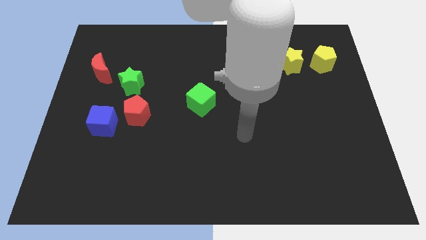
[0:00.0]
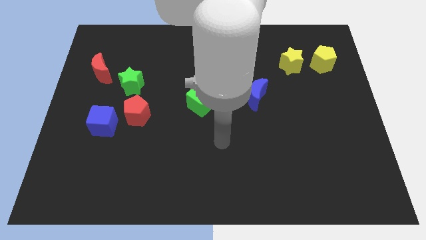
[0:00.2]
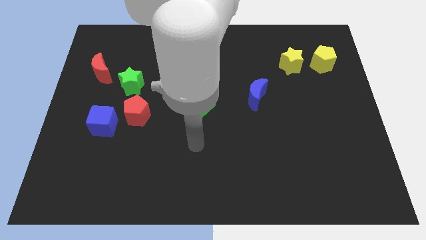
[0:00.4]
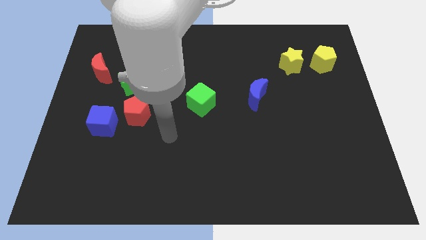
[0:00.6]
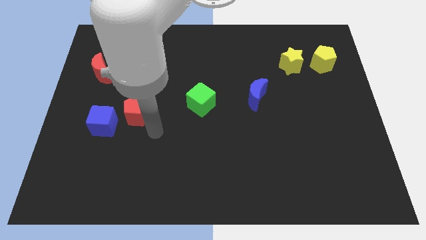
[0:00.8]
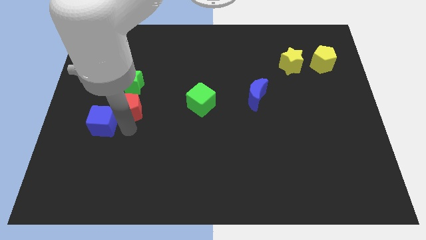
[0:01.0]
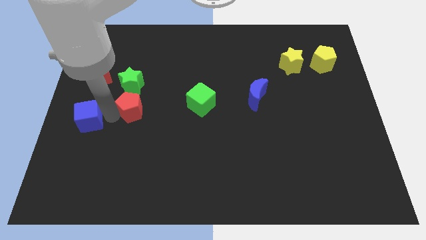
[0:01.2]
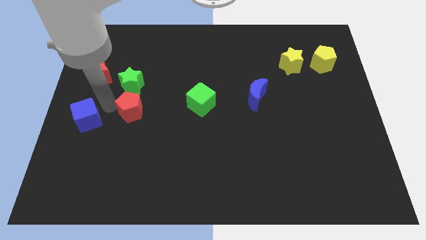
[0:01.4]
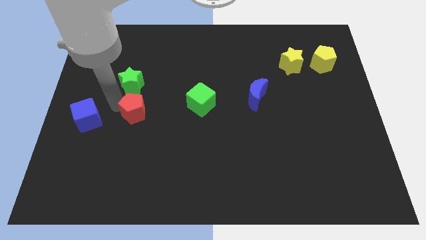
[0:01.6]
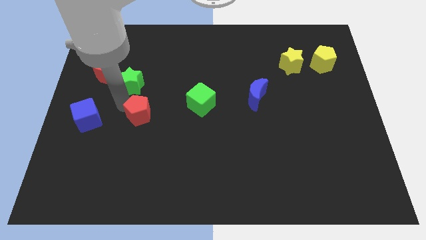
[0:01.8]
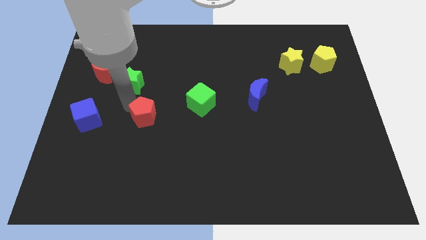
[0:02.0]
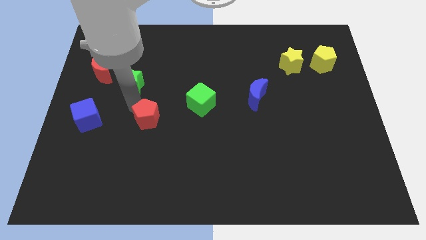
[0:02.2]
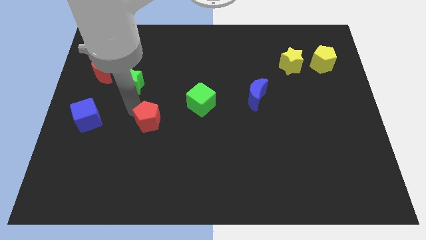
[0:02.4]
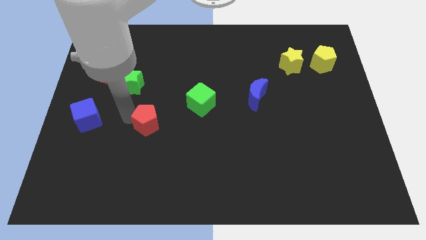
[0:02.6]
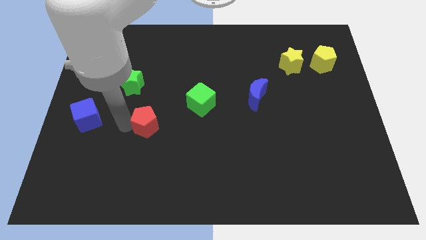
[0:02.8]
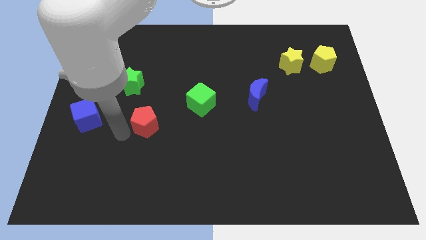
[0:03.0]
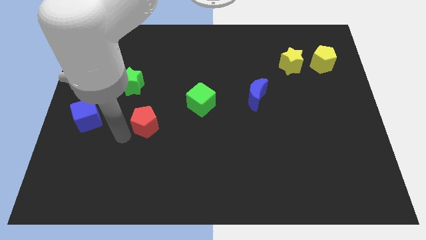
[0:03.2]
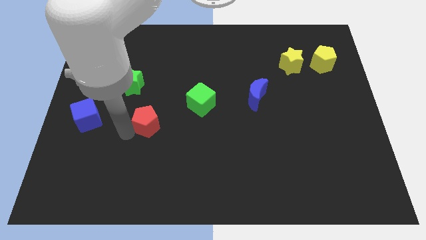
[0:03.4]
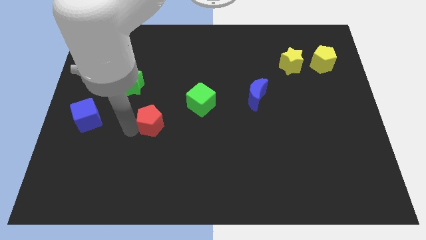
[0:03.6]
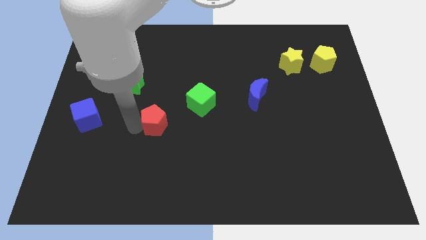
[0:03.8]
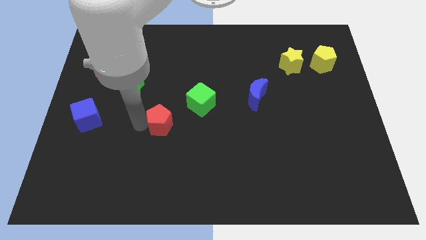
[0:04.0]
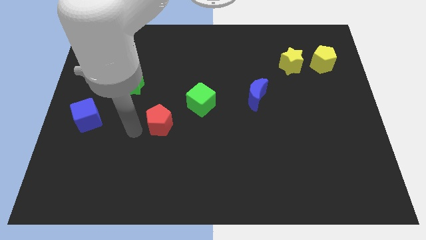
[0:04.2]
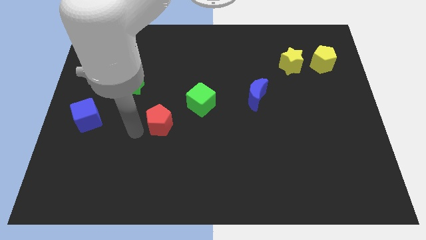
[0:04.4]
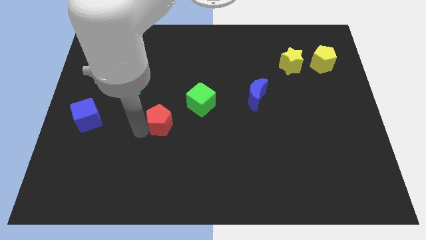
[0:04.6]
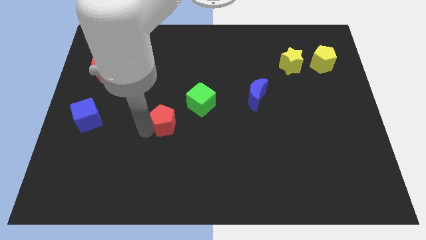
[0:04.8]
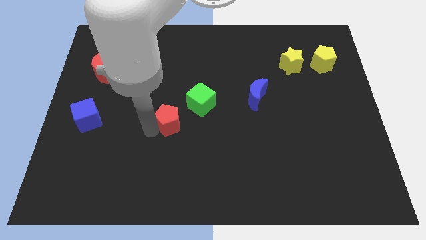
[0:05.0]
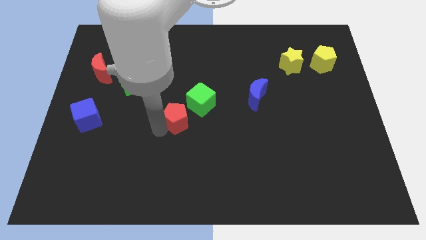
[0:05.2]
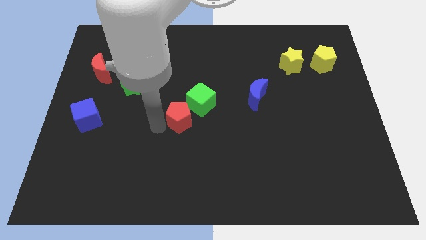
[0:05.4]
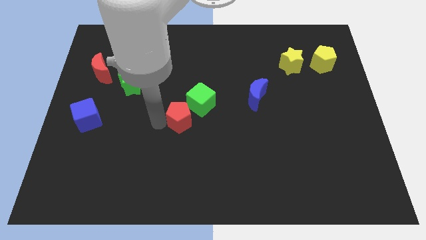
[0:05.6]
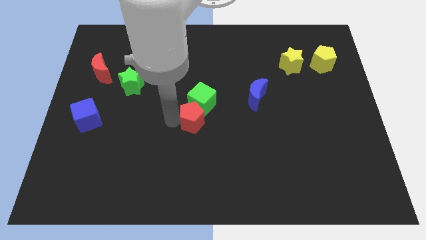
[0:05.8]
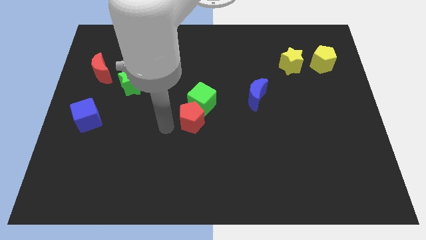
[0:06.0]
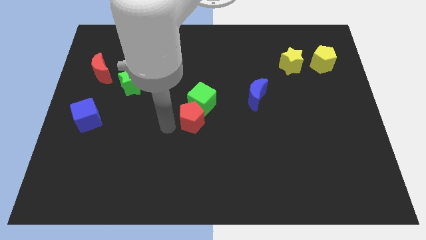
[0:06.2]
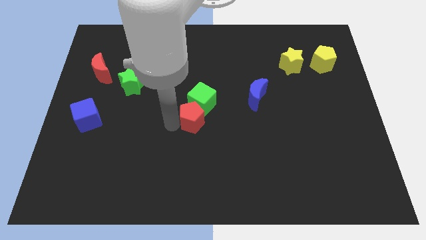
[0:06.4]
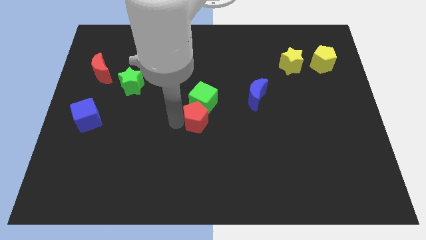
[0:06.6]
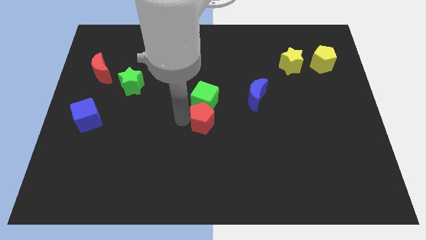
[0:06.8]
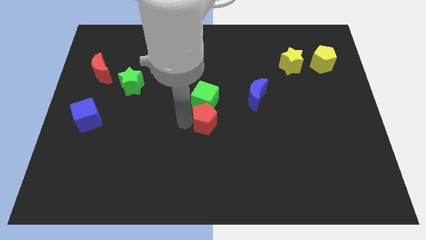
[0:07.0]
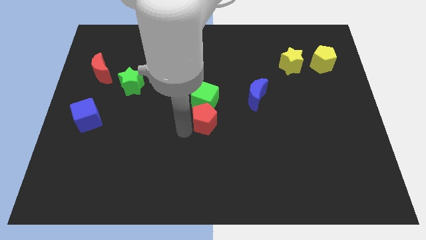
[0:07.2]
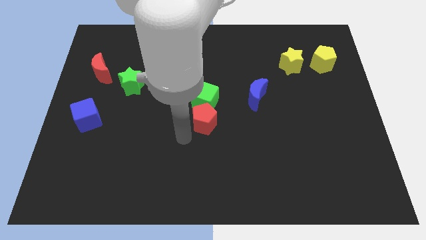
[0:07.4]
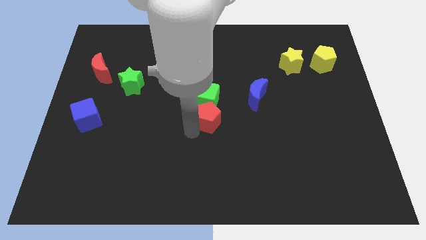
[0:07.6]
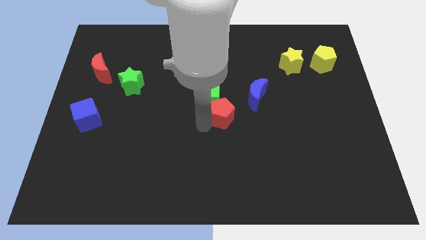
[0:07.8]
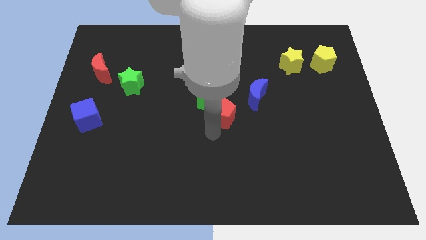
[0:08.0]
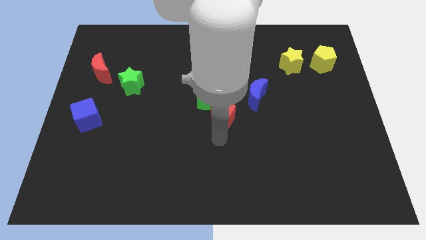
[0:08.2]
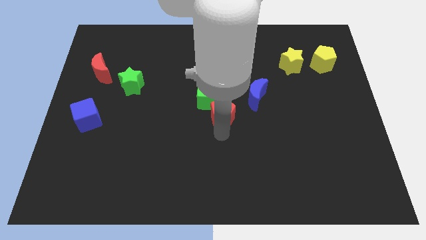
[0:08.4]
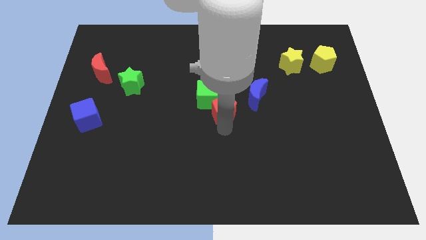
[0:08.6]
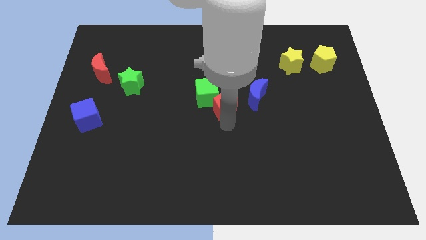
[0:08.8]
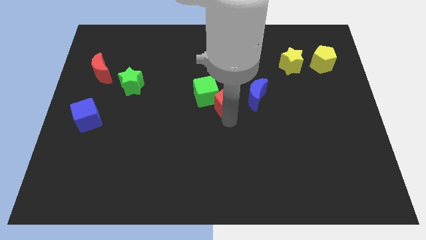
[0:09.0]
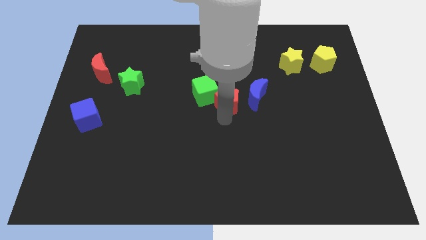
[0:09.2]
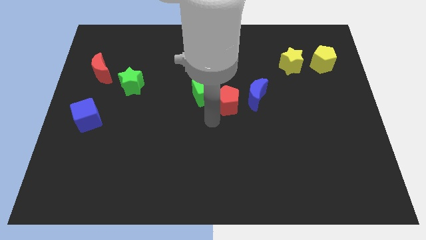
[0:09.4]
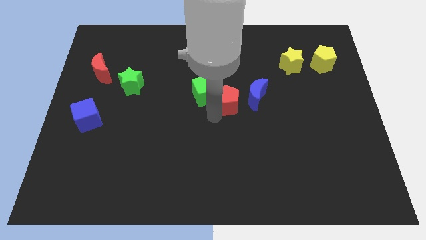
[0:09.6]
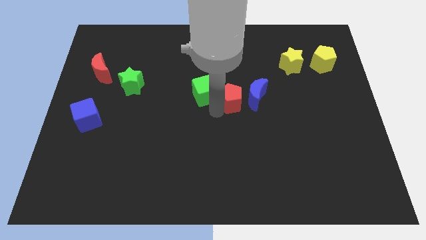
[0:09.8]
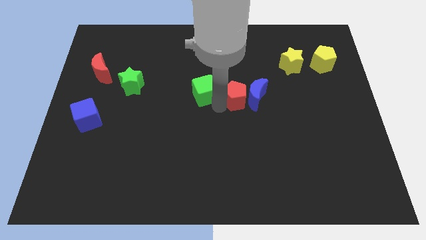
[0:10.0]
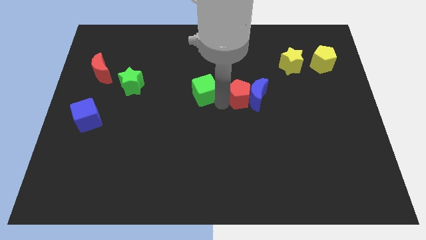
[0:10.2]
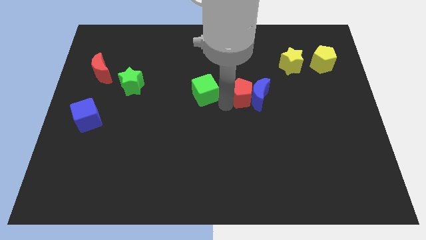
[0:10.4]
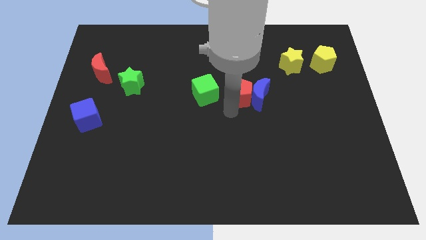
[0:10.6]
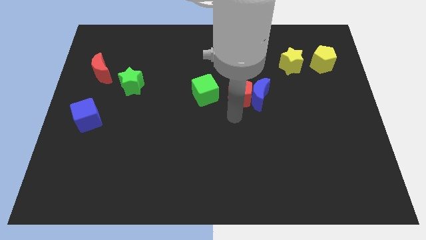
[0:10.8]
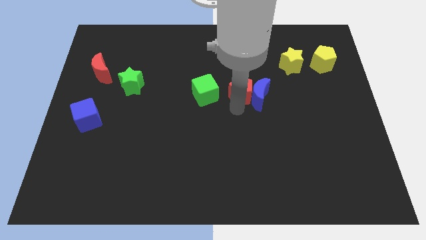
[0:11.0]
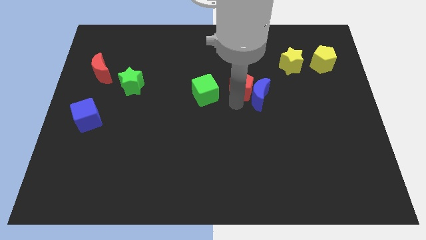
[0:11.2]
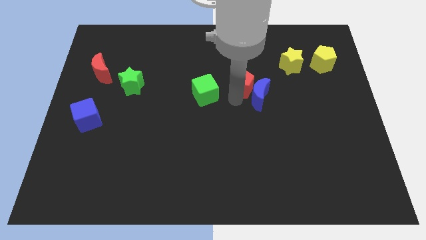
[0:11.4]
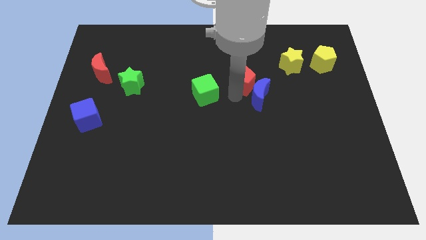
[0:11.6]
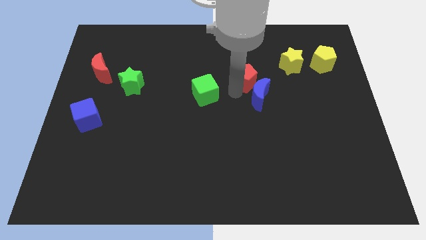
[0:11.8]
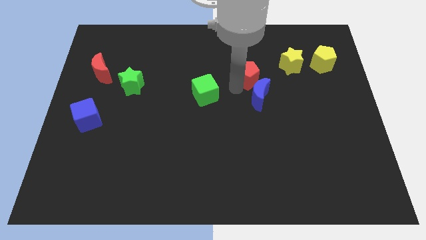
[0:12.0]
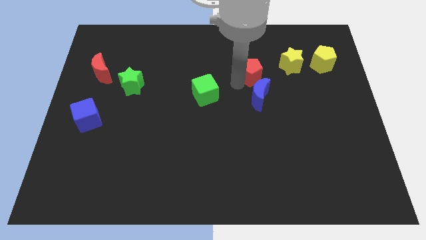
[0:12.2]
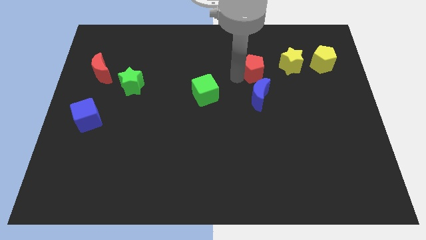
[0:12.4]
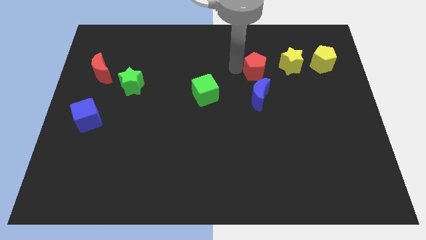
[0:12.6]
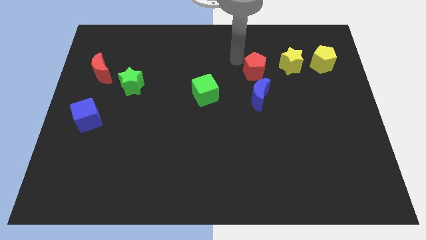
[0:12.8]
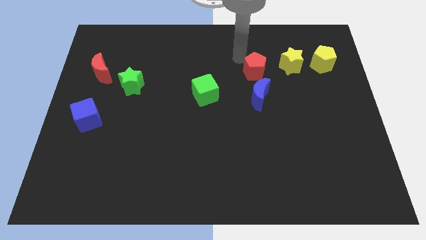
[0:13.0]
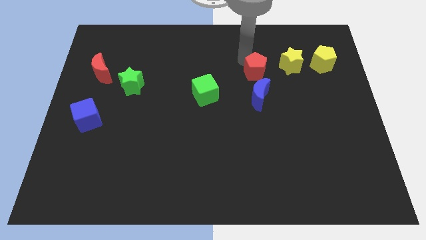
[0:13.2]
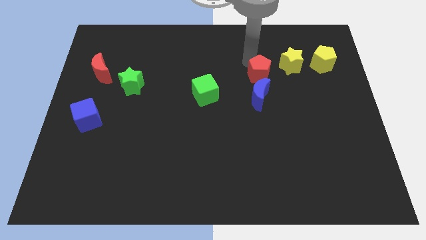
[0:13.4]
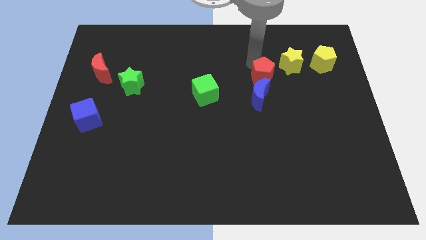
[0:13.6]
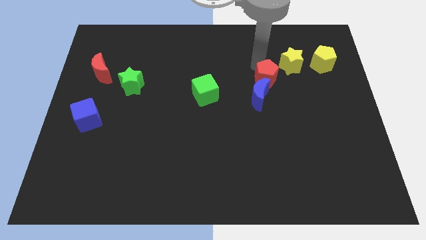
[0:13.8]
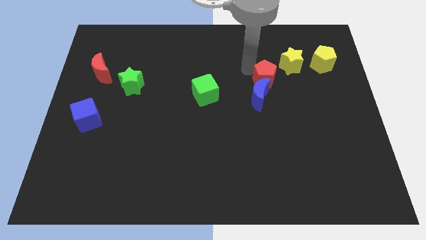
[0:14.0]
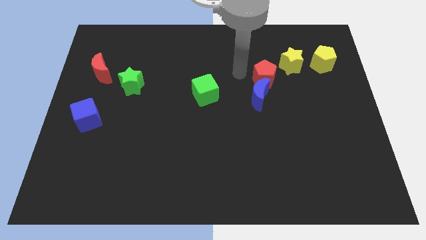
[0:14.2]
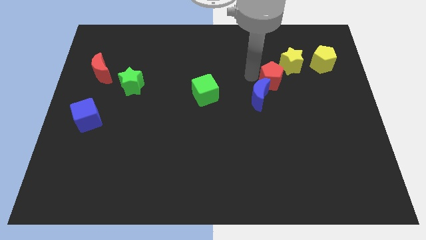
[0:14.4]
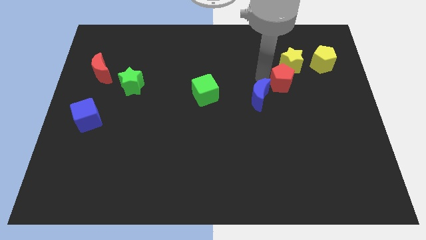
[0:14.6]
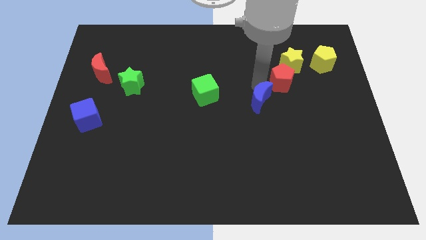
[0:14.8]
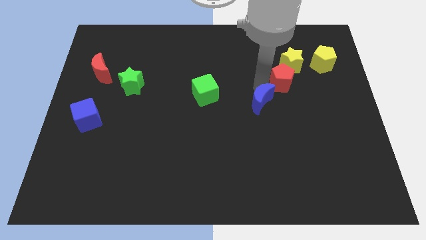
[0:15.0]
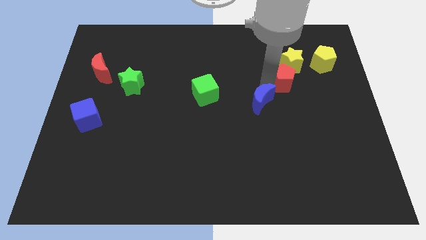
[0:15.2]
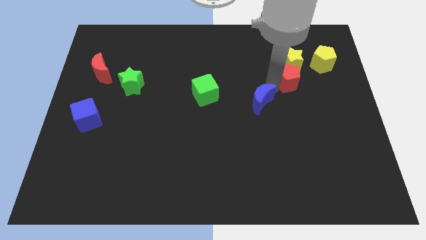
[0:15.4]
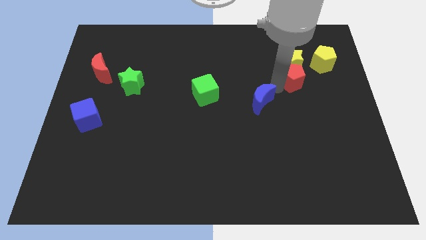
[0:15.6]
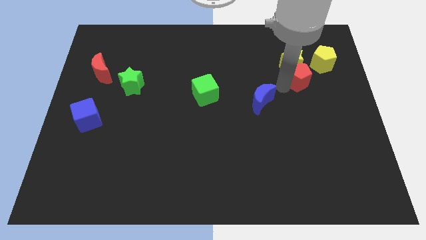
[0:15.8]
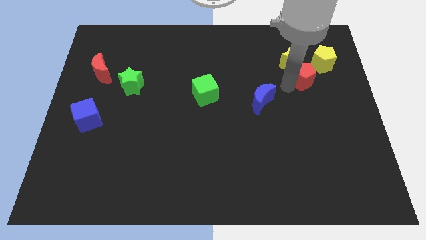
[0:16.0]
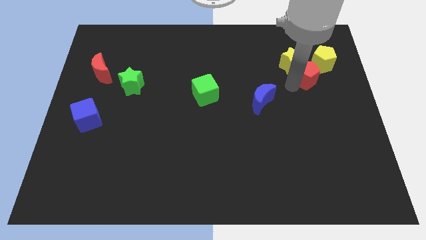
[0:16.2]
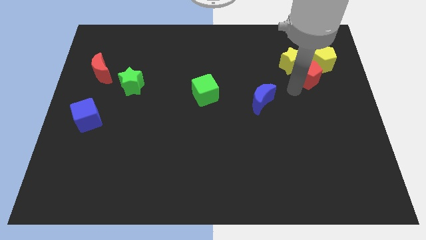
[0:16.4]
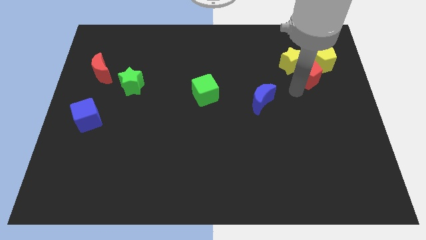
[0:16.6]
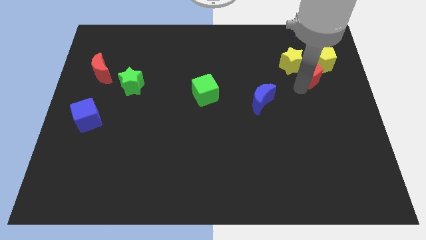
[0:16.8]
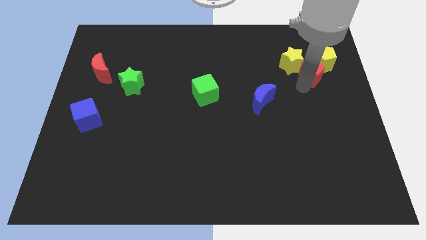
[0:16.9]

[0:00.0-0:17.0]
put the red pentagon towards the yellow pentagon
